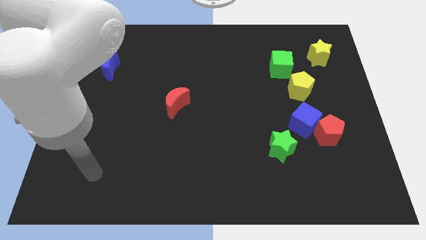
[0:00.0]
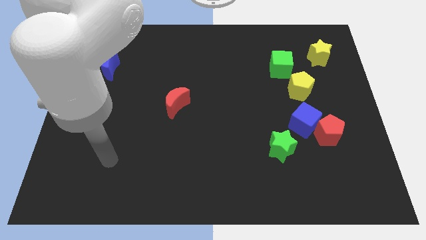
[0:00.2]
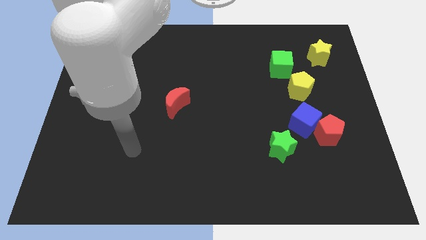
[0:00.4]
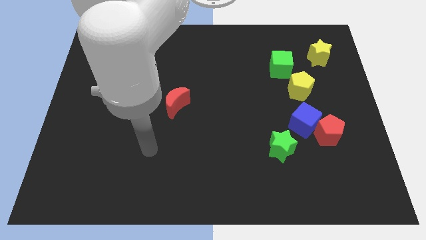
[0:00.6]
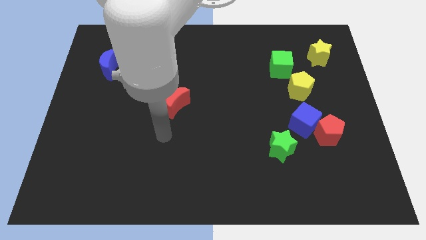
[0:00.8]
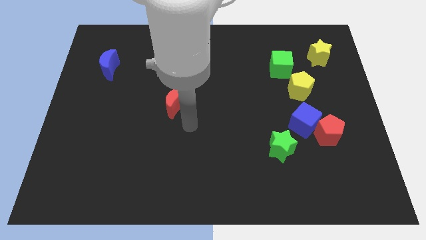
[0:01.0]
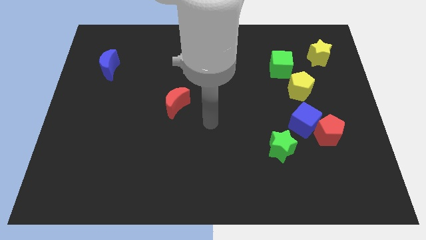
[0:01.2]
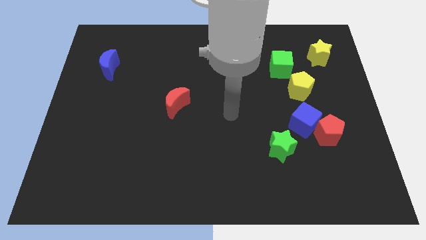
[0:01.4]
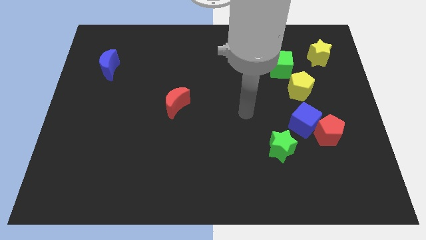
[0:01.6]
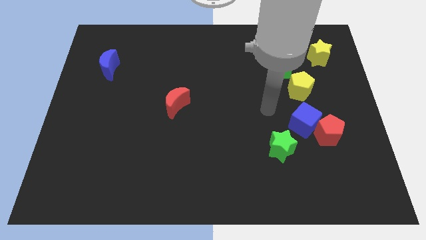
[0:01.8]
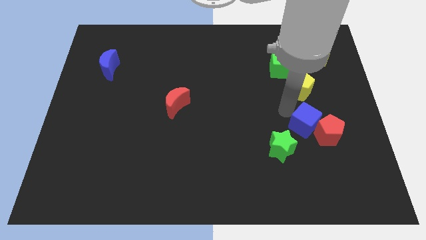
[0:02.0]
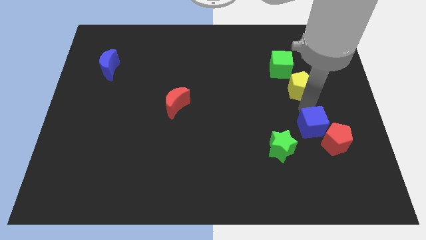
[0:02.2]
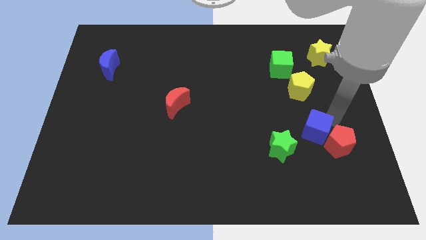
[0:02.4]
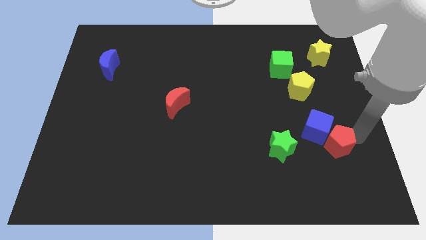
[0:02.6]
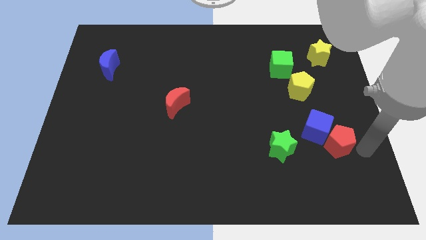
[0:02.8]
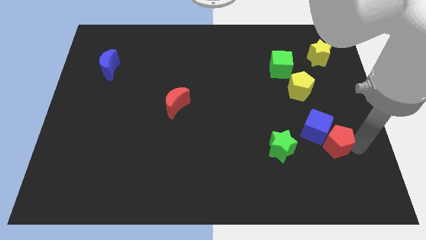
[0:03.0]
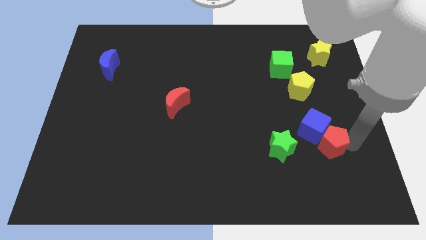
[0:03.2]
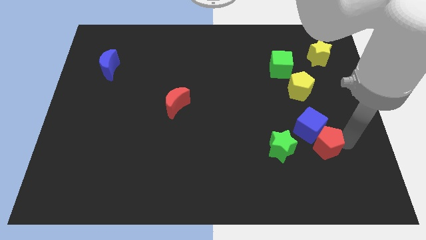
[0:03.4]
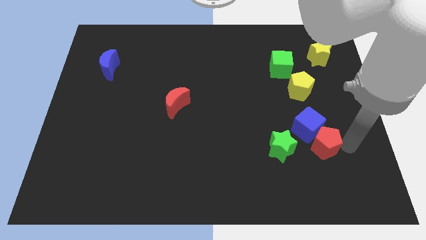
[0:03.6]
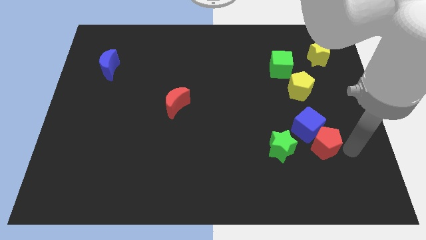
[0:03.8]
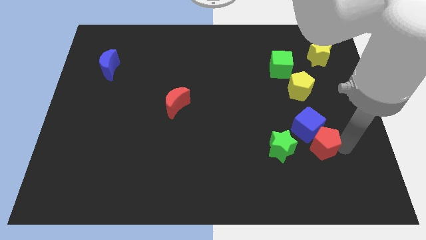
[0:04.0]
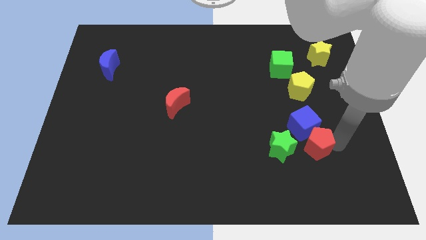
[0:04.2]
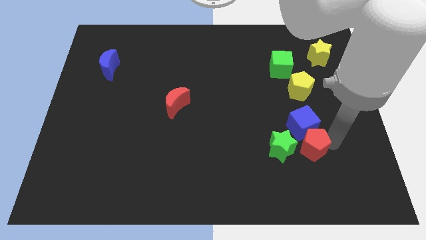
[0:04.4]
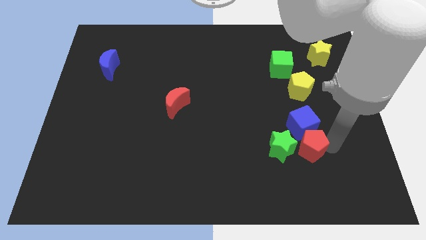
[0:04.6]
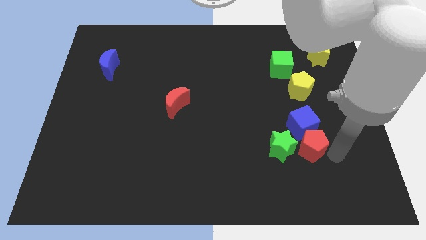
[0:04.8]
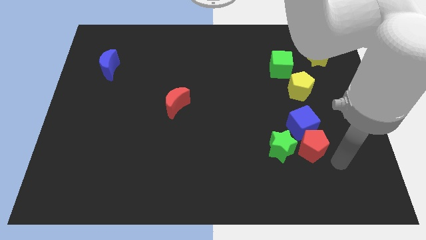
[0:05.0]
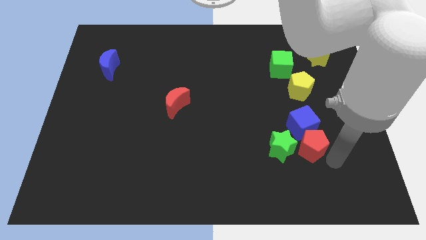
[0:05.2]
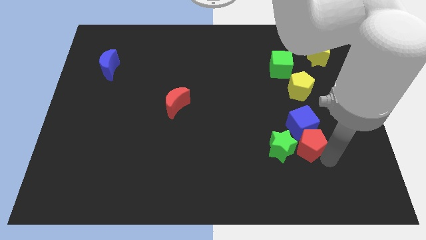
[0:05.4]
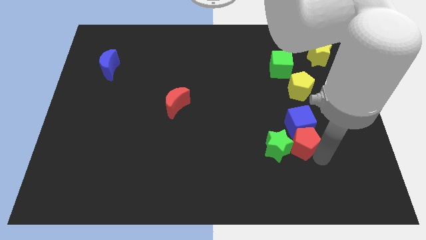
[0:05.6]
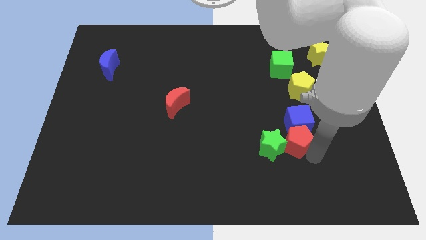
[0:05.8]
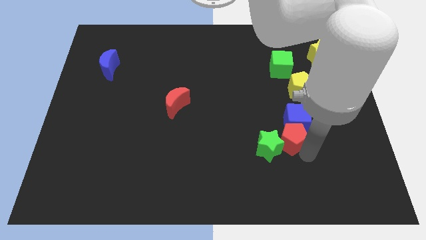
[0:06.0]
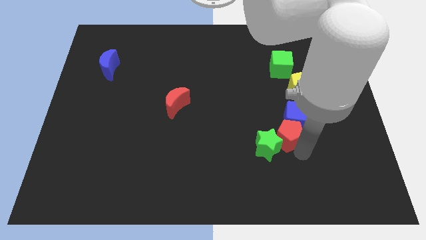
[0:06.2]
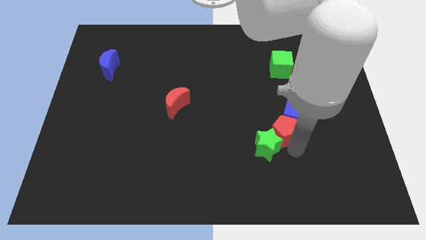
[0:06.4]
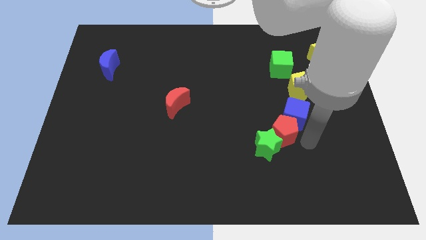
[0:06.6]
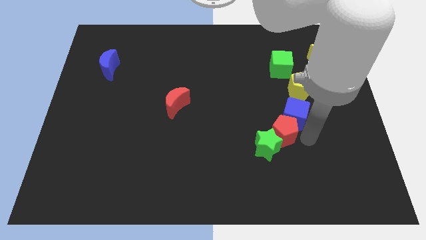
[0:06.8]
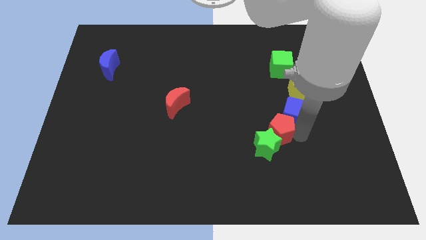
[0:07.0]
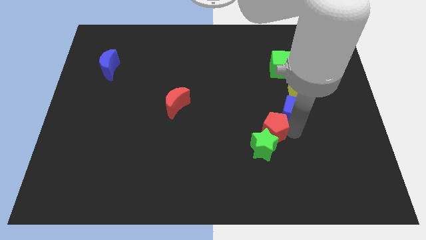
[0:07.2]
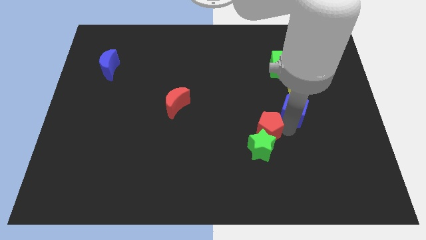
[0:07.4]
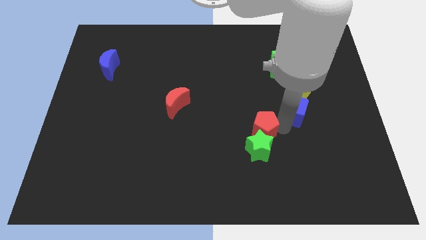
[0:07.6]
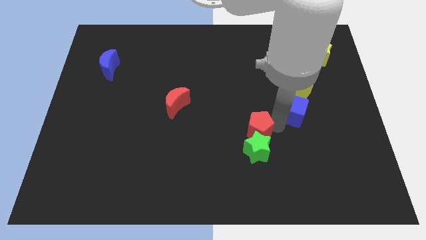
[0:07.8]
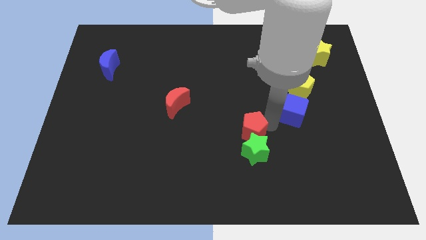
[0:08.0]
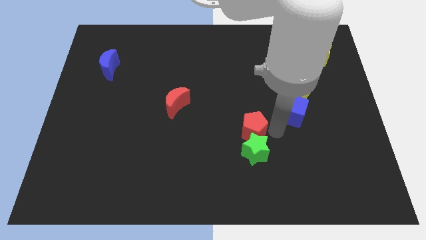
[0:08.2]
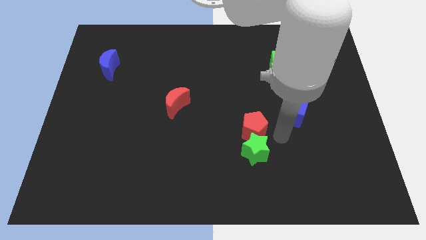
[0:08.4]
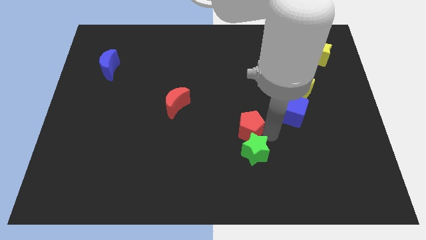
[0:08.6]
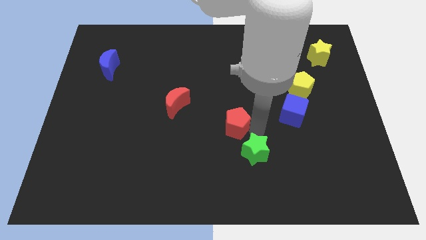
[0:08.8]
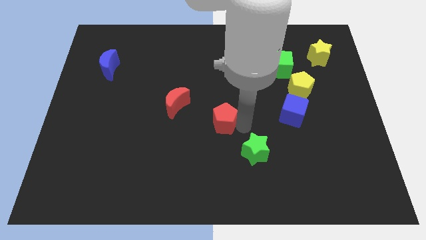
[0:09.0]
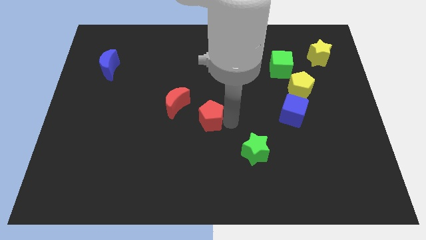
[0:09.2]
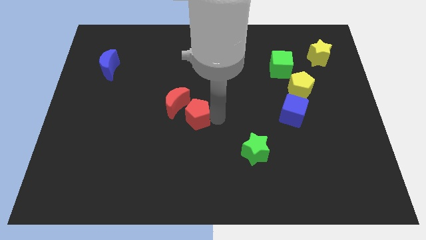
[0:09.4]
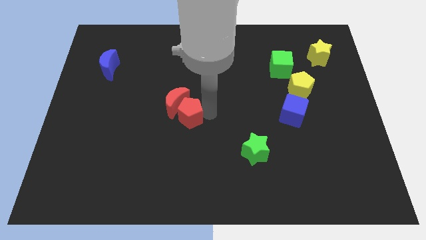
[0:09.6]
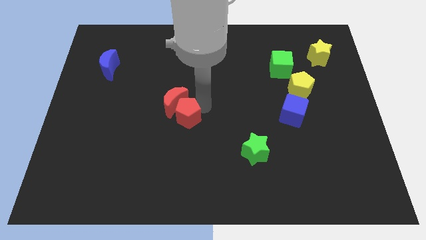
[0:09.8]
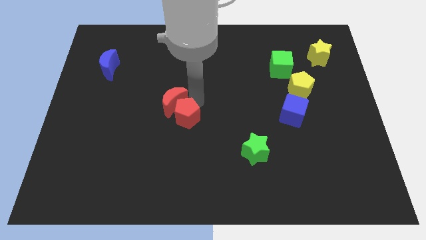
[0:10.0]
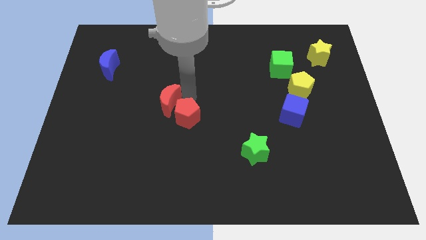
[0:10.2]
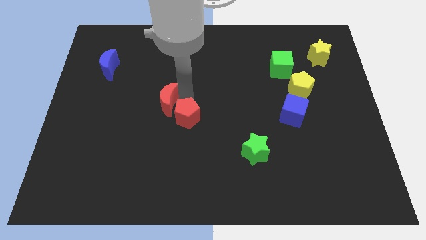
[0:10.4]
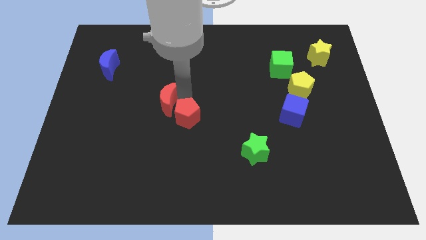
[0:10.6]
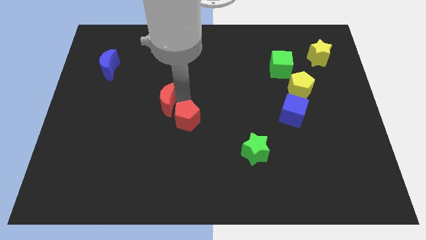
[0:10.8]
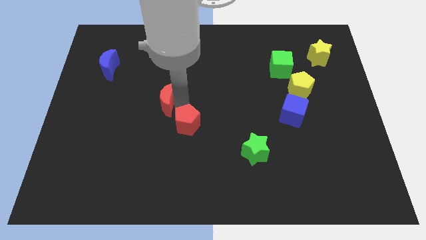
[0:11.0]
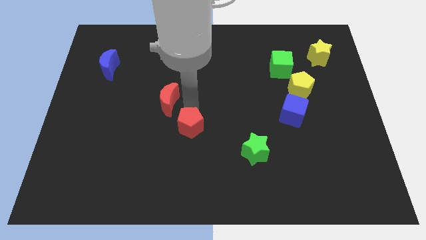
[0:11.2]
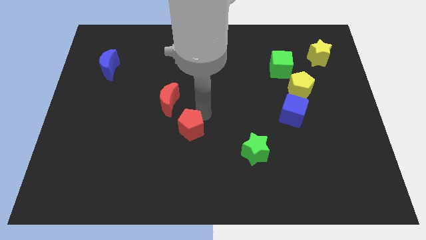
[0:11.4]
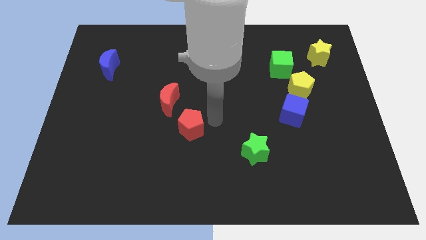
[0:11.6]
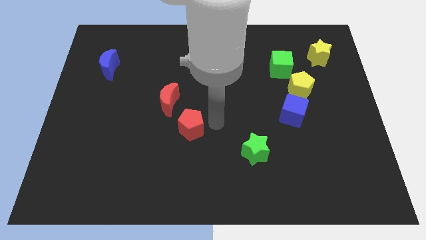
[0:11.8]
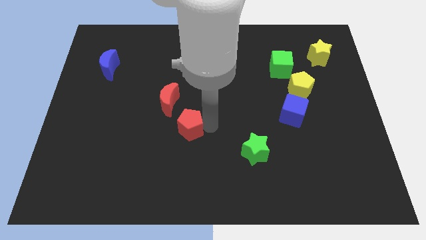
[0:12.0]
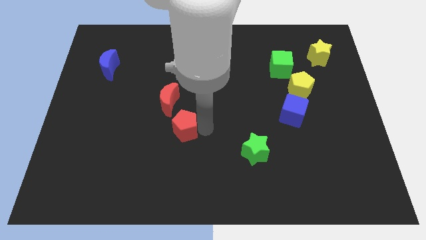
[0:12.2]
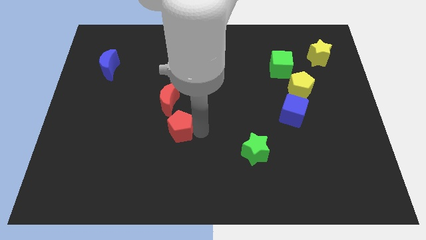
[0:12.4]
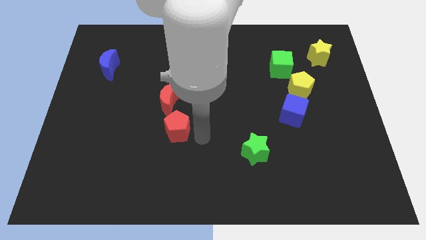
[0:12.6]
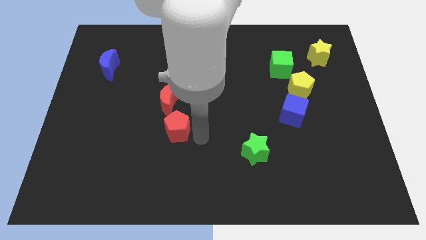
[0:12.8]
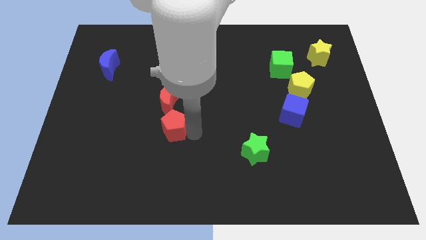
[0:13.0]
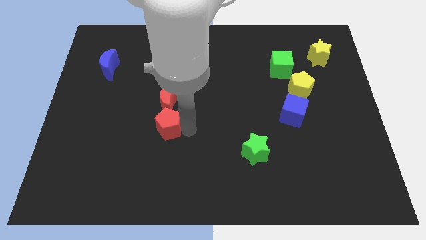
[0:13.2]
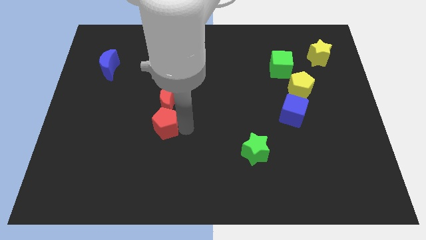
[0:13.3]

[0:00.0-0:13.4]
put the red pentagon diagonally down and to the left of the red moon

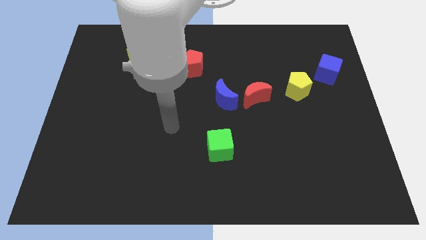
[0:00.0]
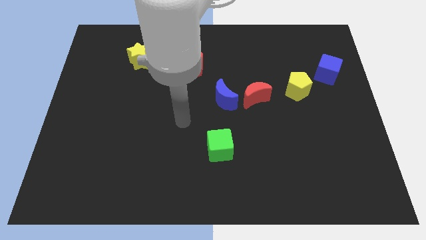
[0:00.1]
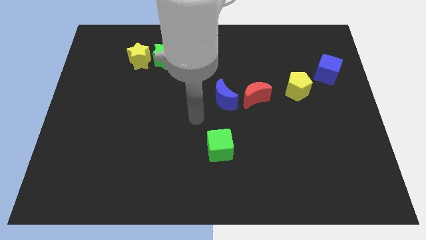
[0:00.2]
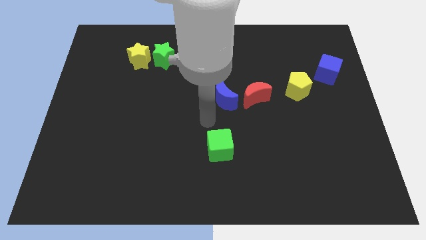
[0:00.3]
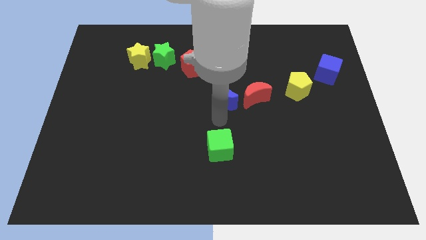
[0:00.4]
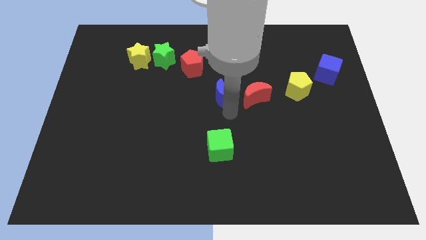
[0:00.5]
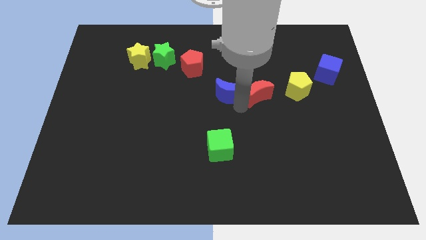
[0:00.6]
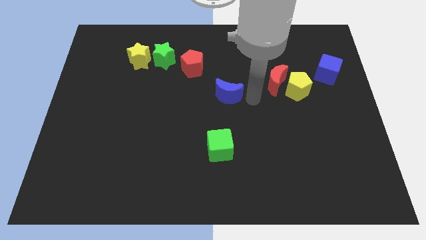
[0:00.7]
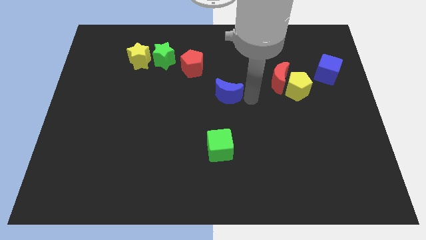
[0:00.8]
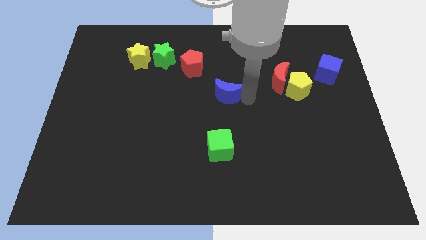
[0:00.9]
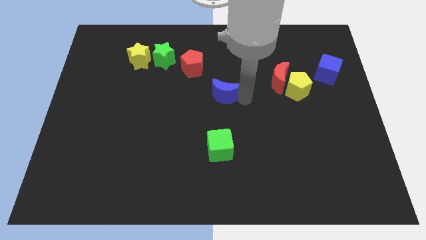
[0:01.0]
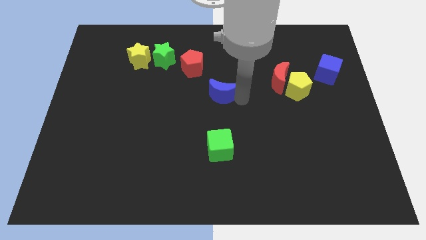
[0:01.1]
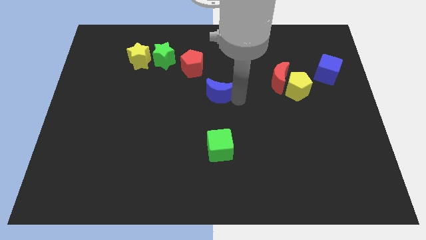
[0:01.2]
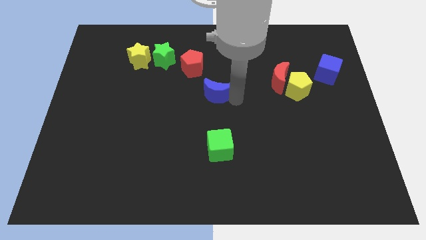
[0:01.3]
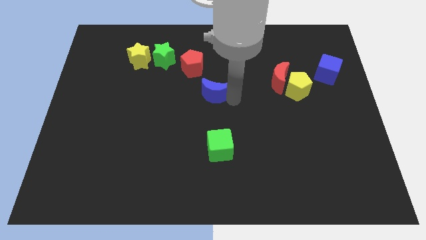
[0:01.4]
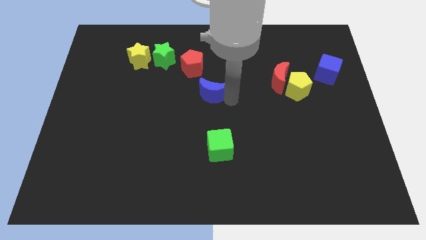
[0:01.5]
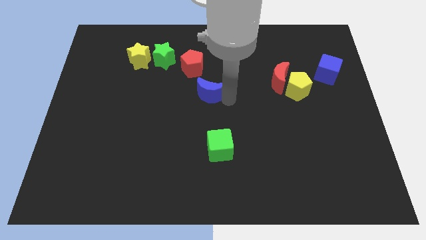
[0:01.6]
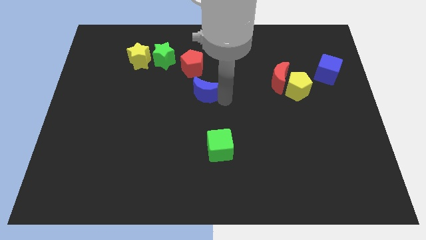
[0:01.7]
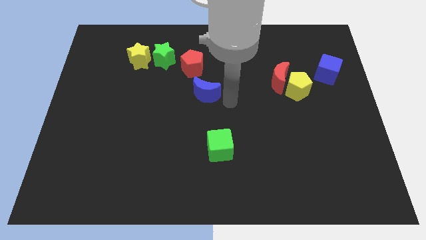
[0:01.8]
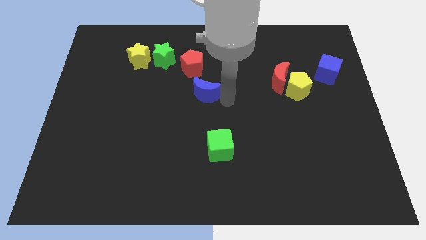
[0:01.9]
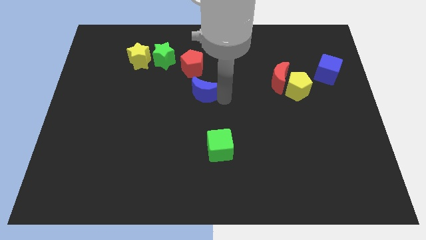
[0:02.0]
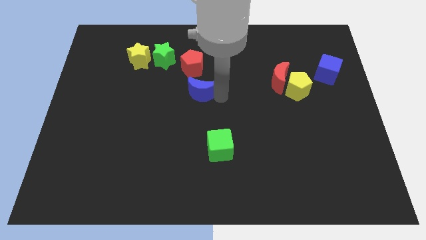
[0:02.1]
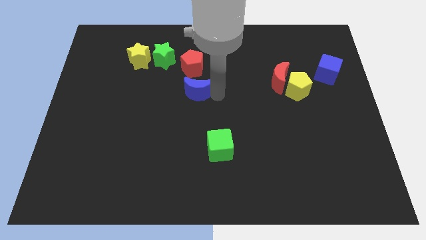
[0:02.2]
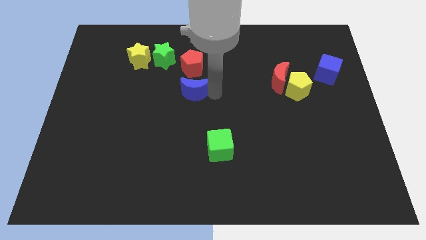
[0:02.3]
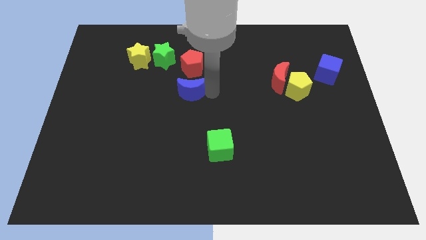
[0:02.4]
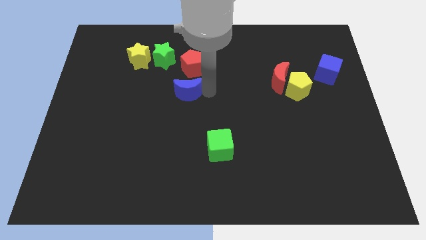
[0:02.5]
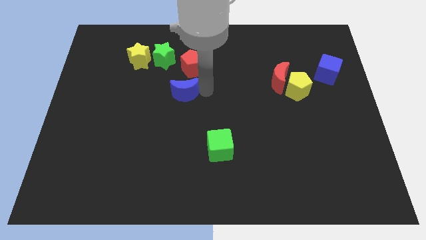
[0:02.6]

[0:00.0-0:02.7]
put the blue moon to the bottom left of the red pentagon
